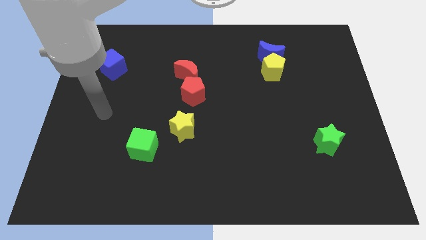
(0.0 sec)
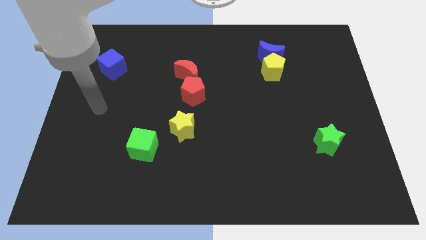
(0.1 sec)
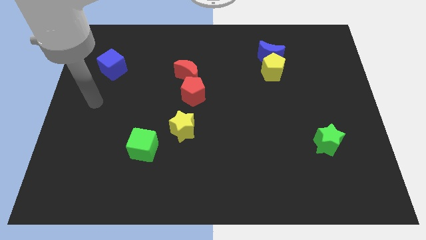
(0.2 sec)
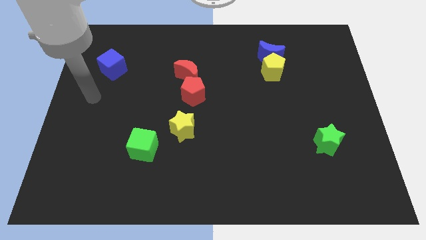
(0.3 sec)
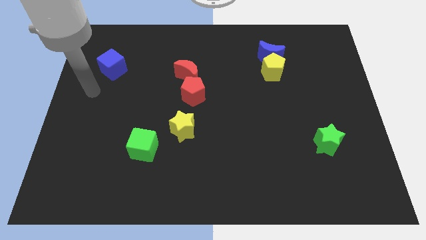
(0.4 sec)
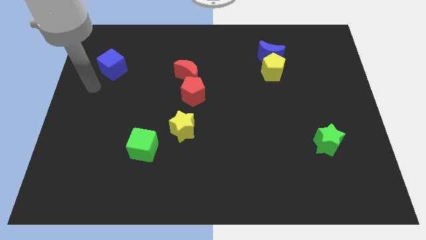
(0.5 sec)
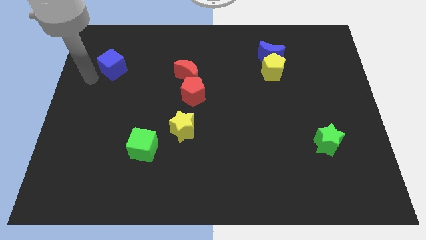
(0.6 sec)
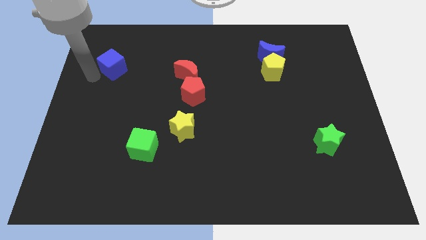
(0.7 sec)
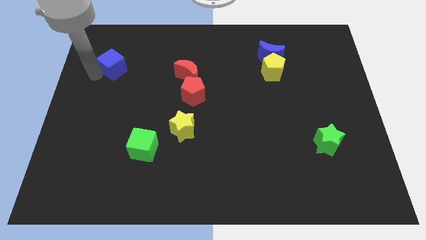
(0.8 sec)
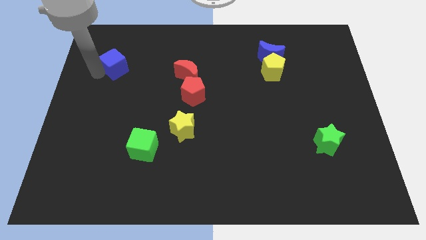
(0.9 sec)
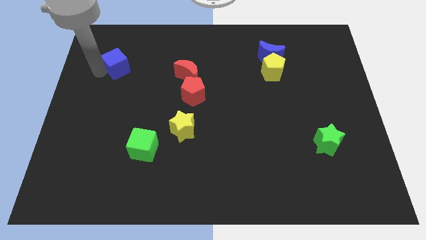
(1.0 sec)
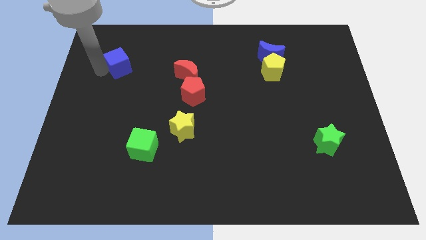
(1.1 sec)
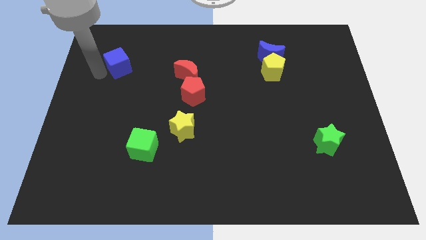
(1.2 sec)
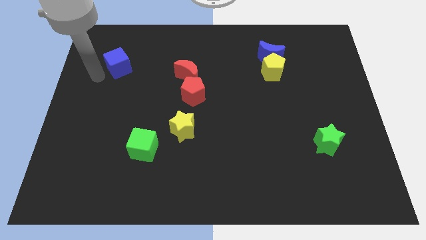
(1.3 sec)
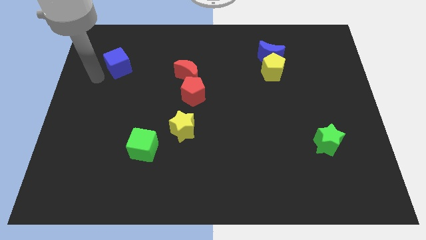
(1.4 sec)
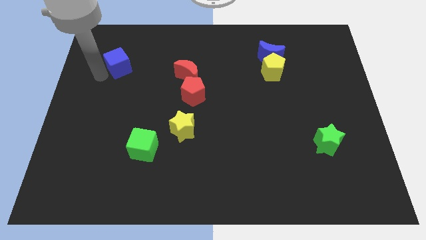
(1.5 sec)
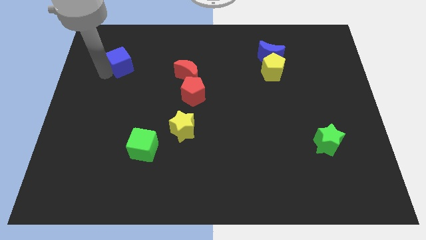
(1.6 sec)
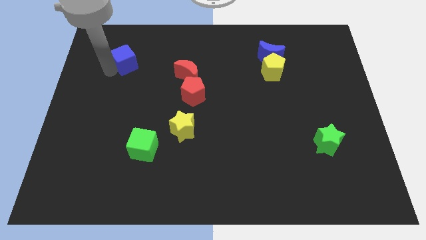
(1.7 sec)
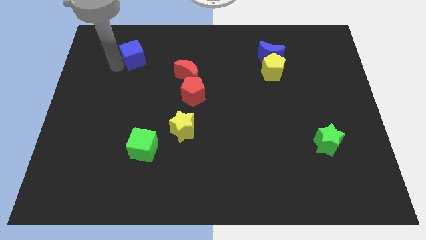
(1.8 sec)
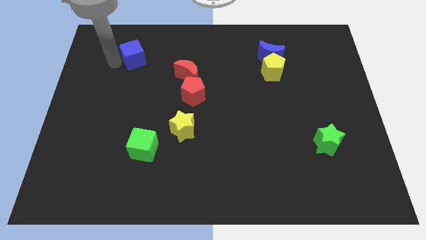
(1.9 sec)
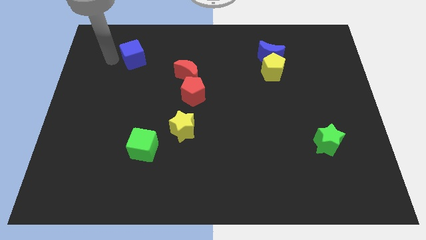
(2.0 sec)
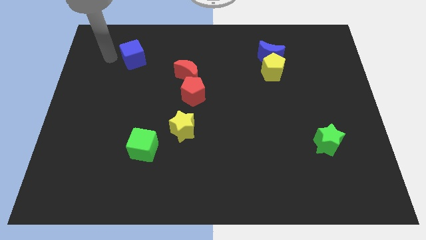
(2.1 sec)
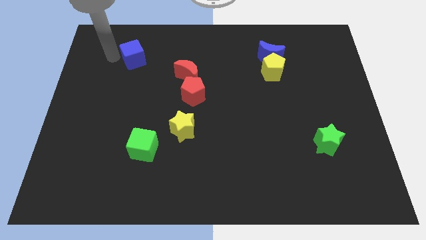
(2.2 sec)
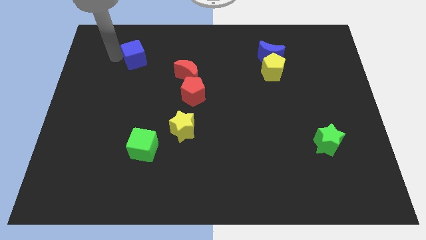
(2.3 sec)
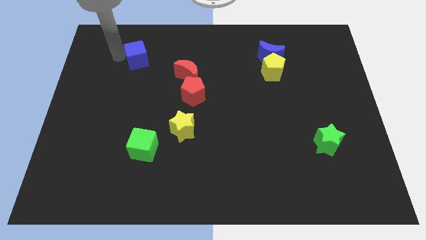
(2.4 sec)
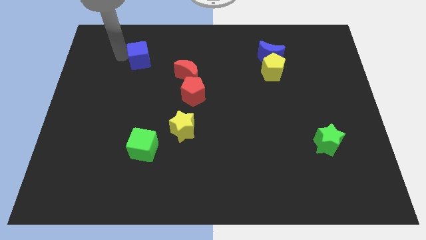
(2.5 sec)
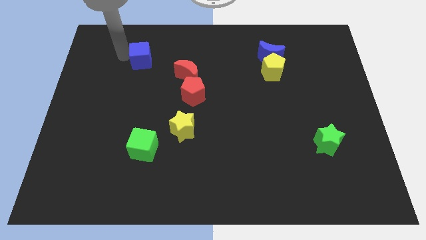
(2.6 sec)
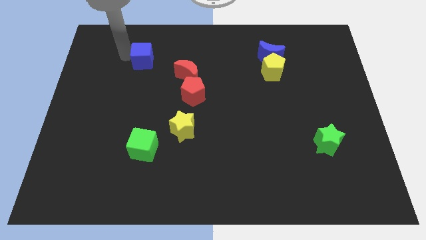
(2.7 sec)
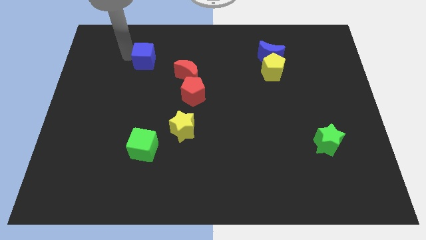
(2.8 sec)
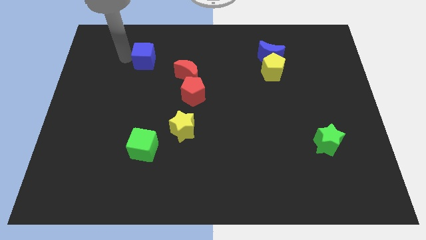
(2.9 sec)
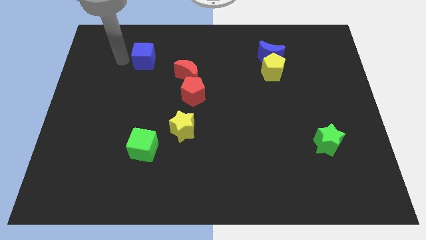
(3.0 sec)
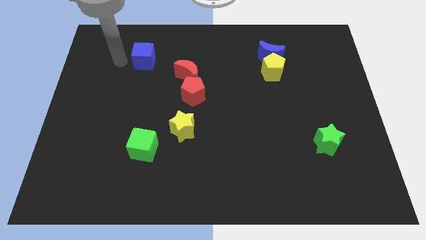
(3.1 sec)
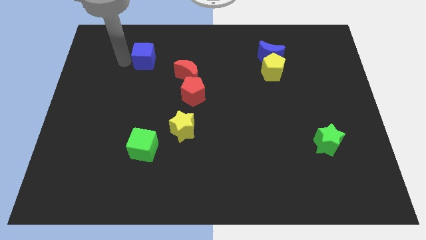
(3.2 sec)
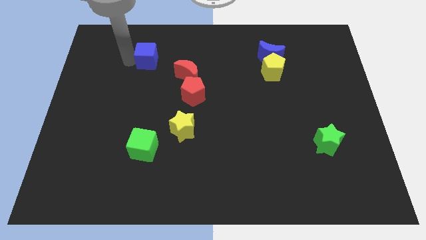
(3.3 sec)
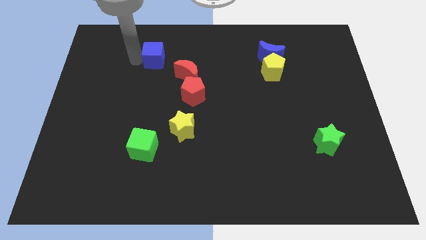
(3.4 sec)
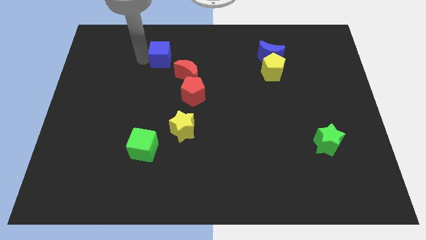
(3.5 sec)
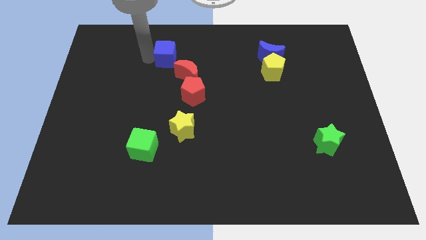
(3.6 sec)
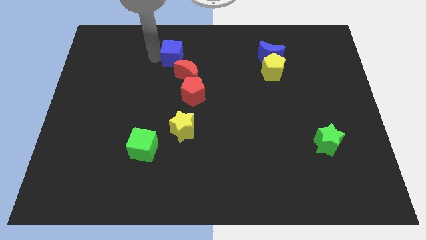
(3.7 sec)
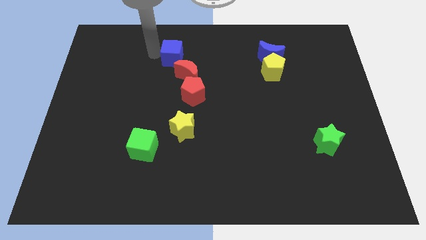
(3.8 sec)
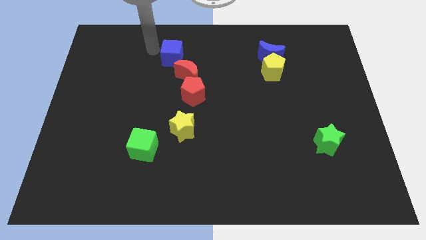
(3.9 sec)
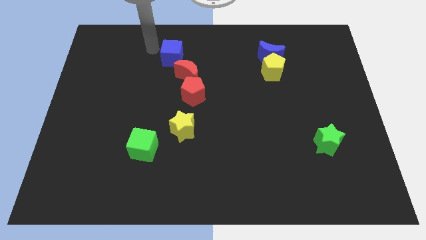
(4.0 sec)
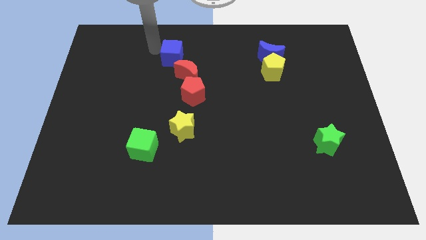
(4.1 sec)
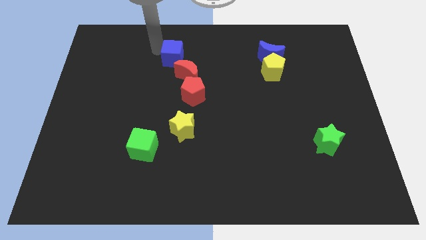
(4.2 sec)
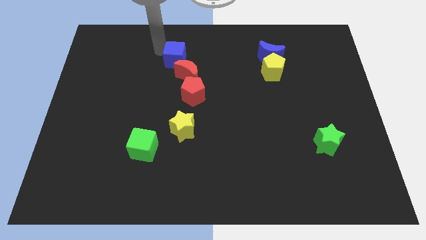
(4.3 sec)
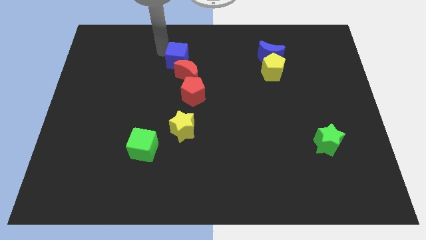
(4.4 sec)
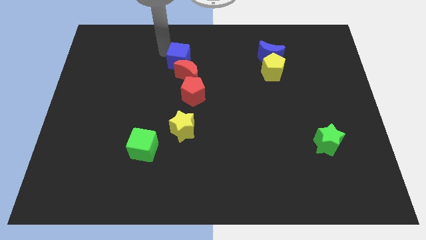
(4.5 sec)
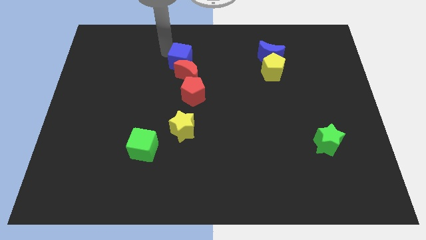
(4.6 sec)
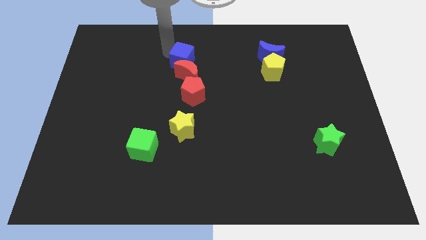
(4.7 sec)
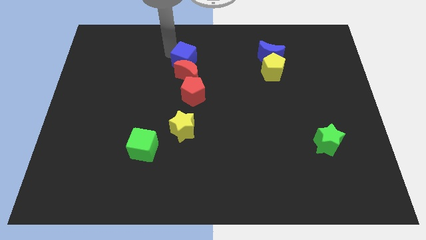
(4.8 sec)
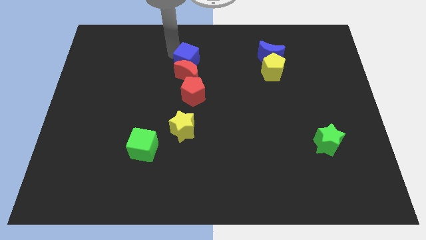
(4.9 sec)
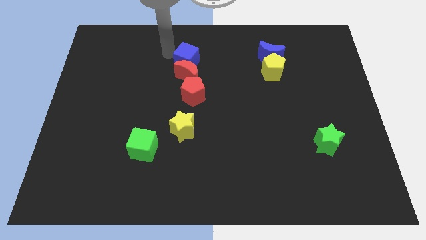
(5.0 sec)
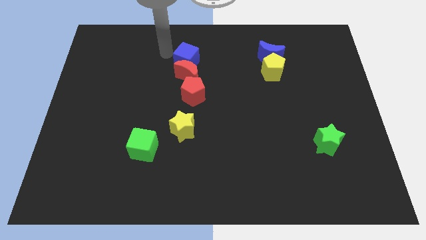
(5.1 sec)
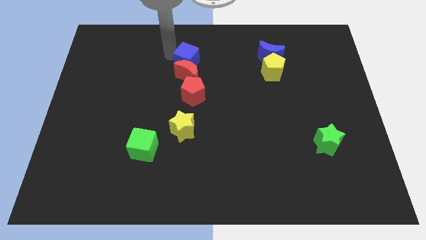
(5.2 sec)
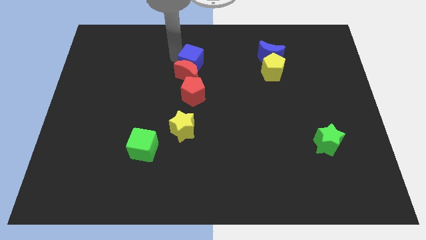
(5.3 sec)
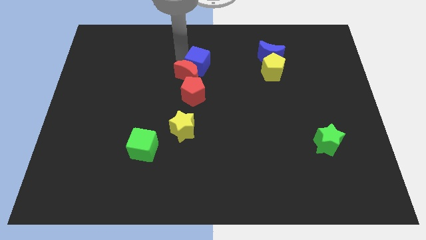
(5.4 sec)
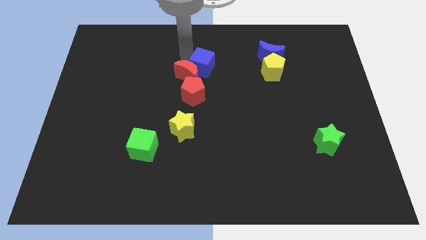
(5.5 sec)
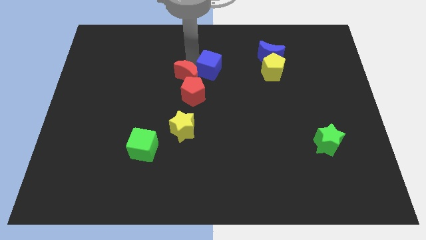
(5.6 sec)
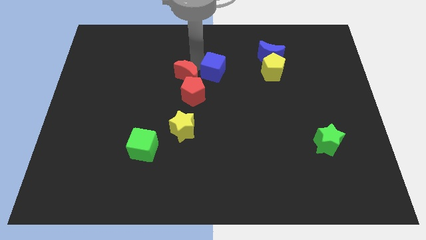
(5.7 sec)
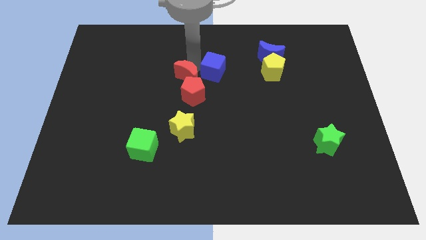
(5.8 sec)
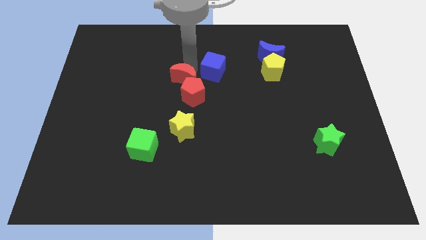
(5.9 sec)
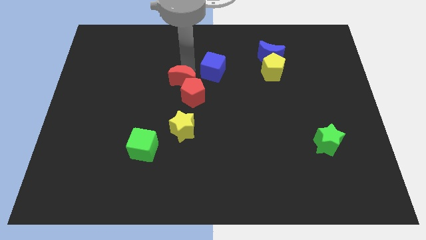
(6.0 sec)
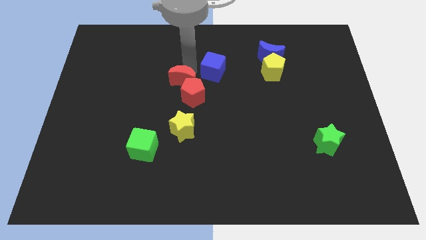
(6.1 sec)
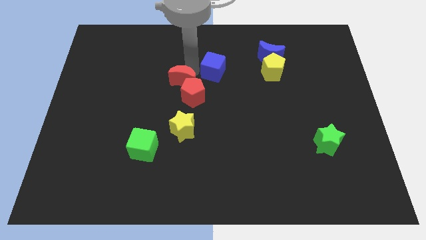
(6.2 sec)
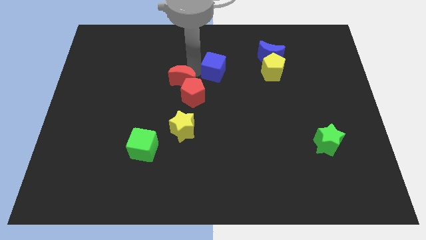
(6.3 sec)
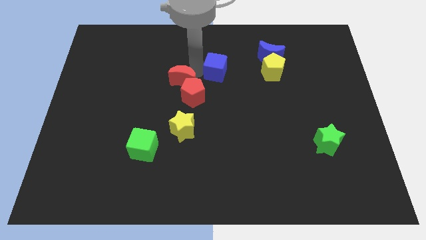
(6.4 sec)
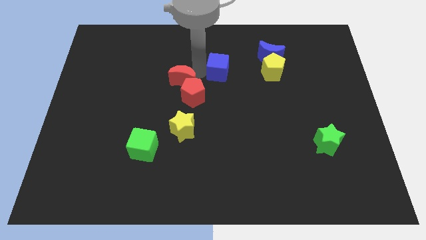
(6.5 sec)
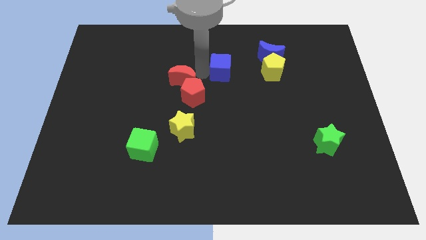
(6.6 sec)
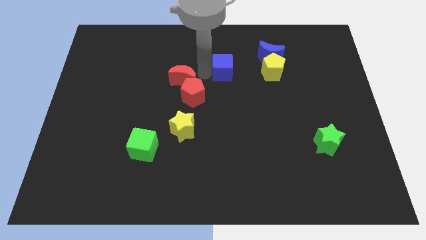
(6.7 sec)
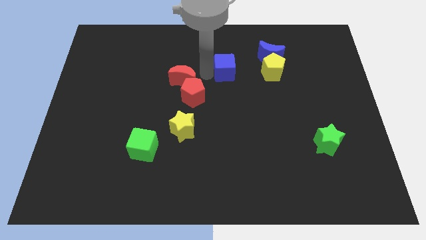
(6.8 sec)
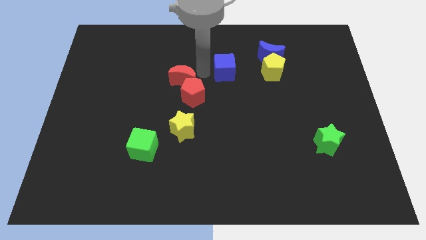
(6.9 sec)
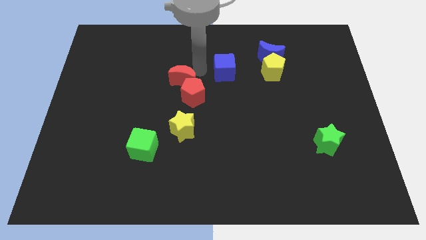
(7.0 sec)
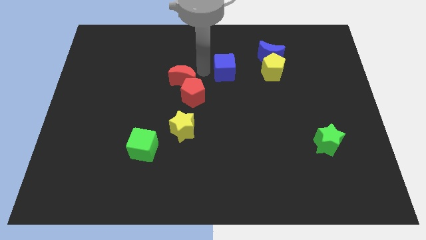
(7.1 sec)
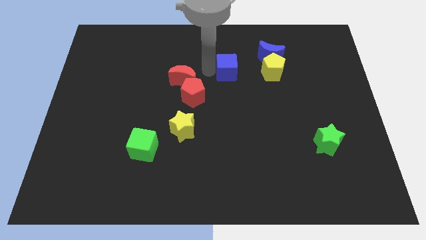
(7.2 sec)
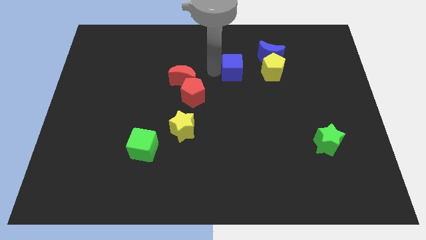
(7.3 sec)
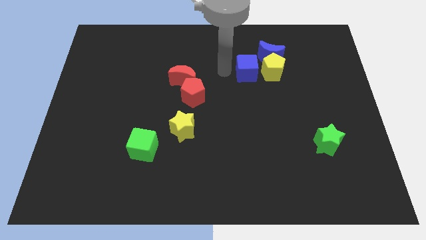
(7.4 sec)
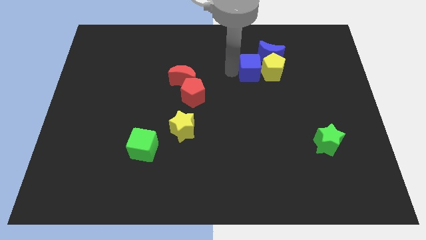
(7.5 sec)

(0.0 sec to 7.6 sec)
push the blue cube next to the yellow pentagon

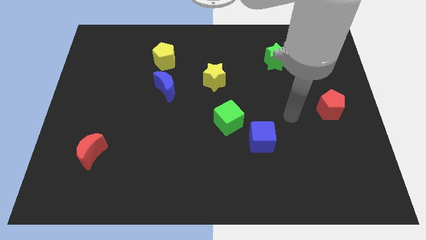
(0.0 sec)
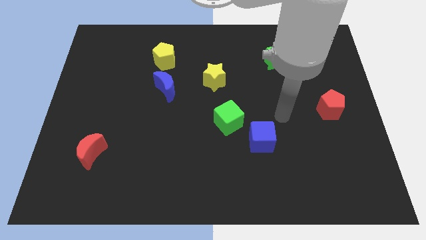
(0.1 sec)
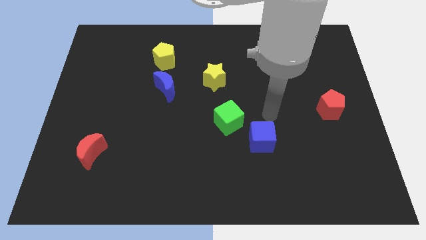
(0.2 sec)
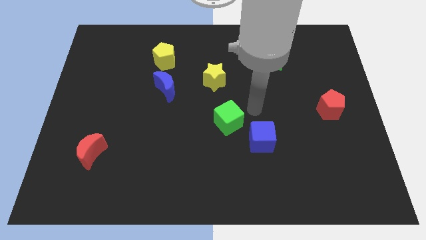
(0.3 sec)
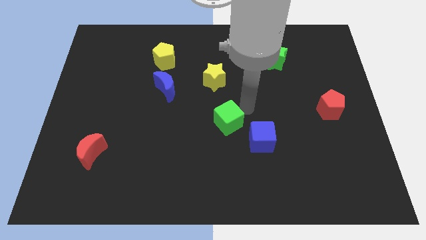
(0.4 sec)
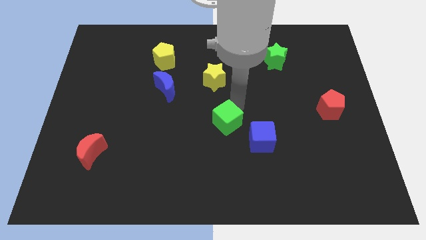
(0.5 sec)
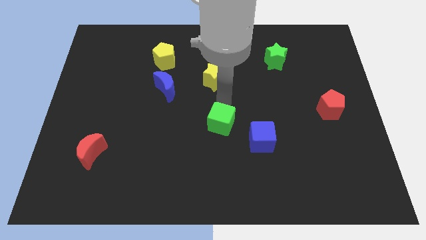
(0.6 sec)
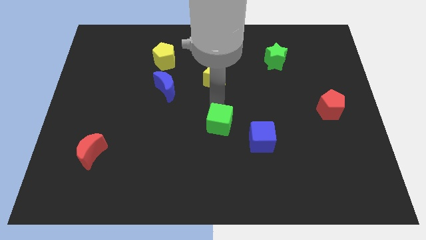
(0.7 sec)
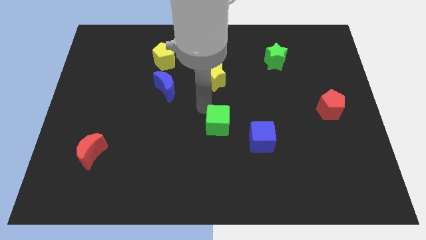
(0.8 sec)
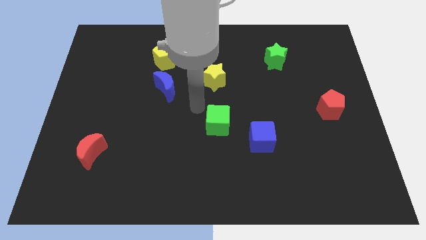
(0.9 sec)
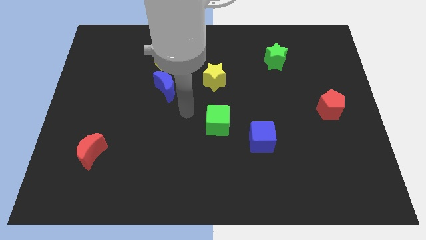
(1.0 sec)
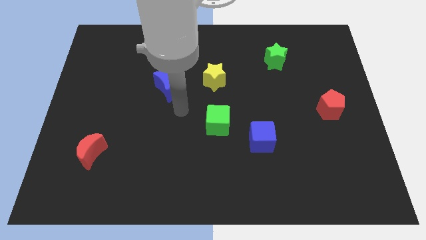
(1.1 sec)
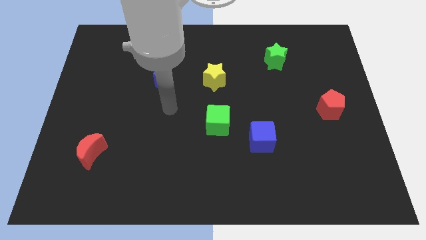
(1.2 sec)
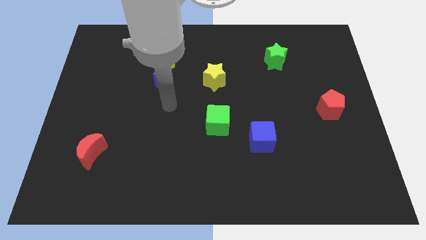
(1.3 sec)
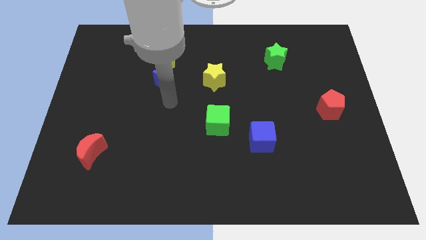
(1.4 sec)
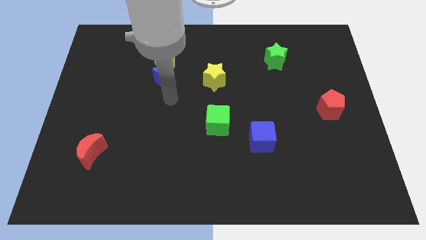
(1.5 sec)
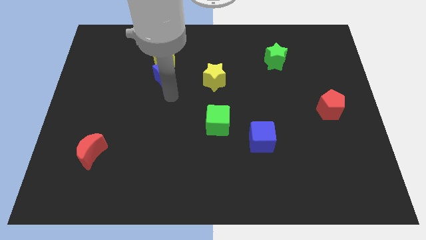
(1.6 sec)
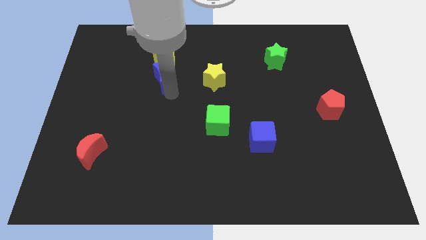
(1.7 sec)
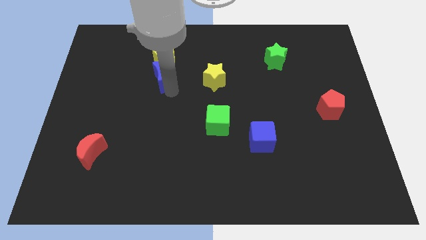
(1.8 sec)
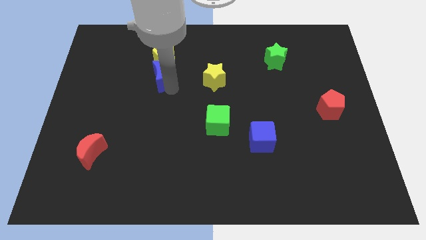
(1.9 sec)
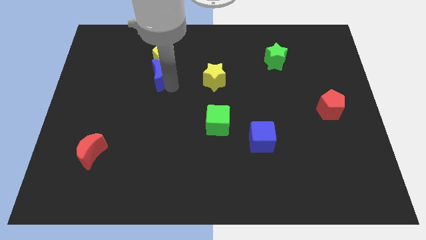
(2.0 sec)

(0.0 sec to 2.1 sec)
push the blue moon towards the yellow pentagon
